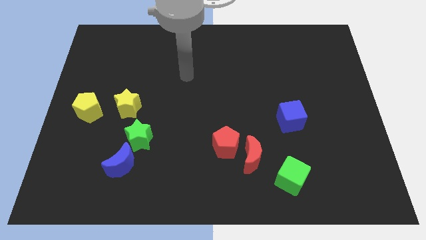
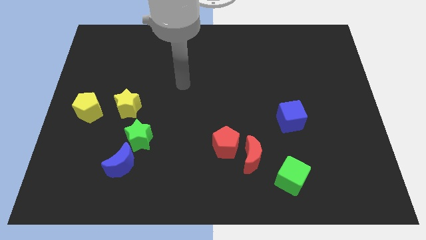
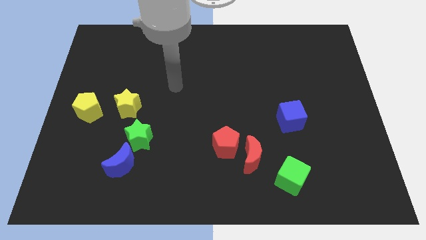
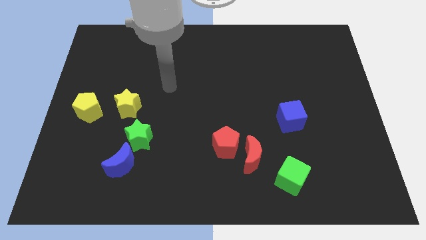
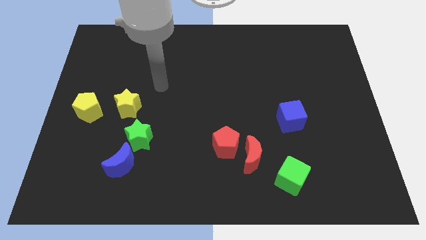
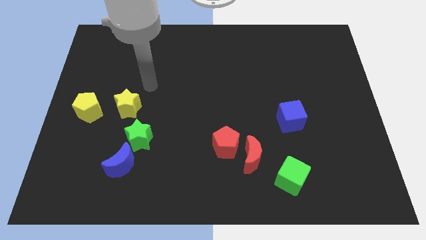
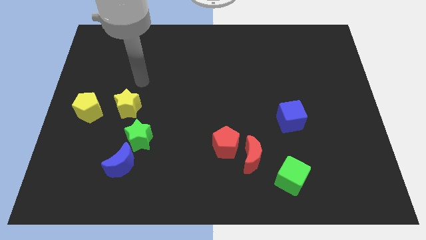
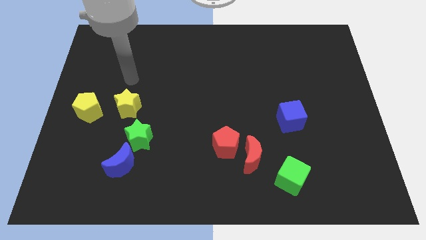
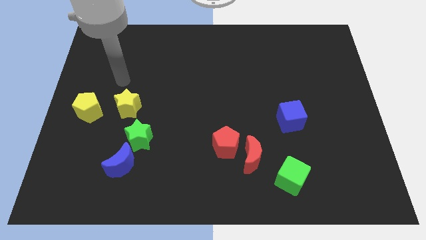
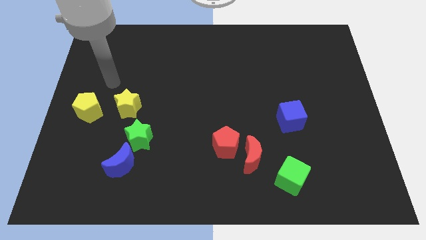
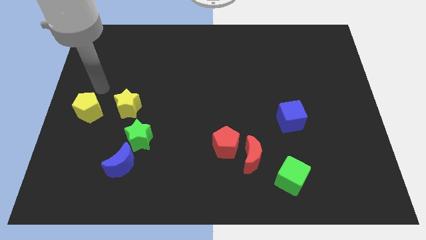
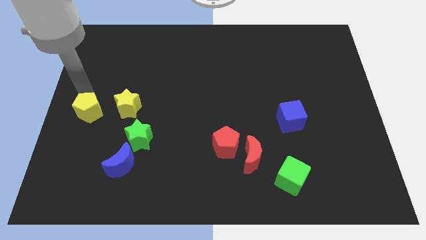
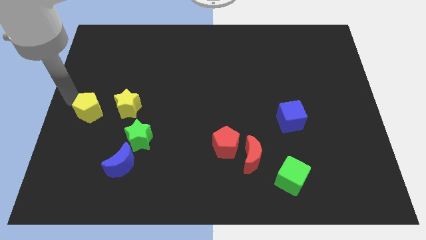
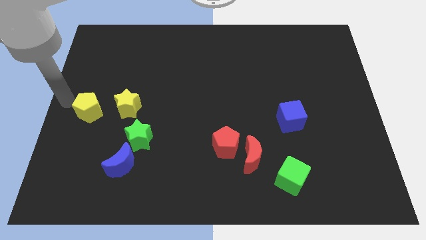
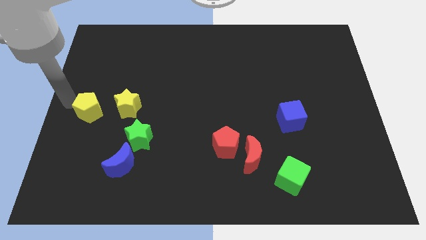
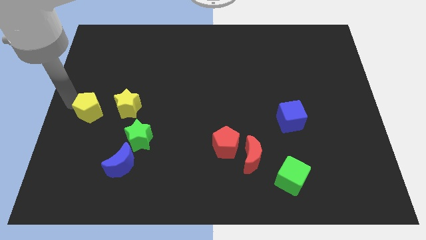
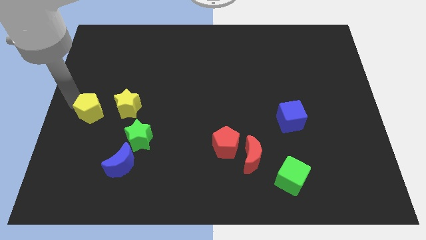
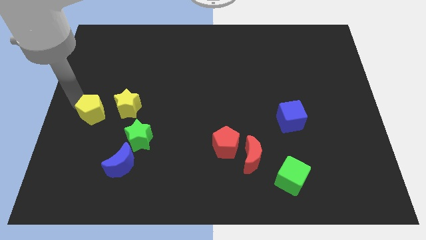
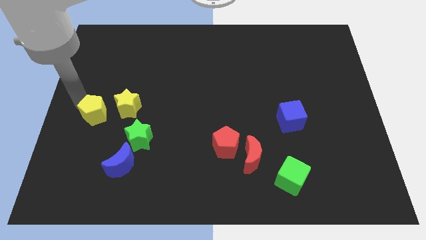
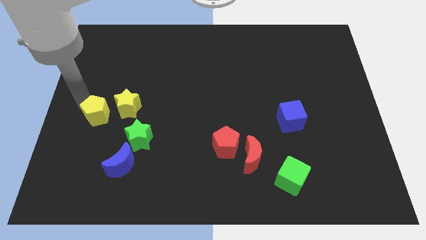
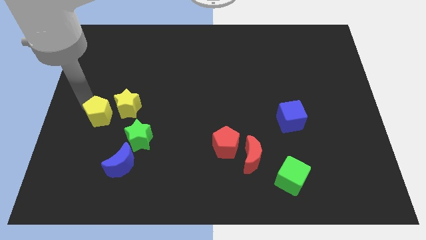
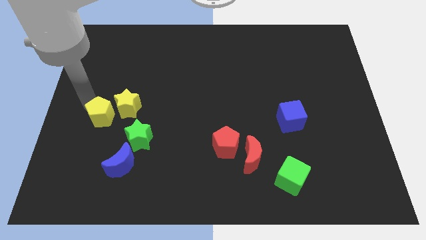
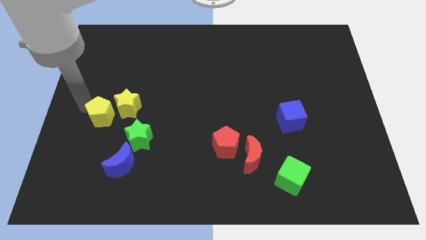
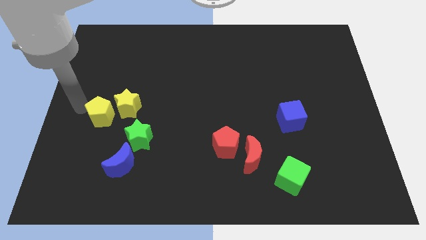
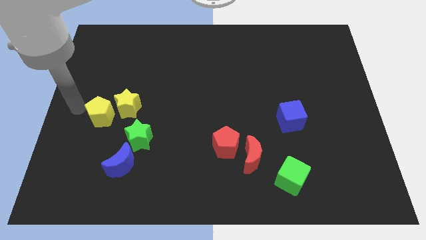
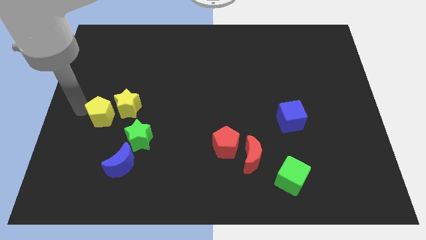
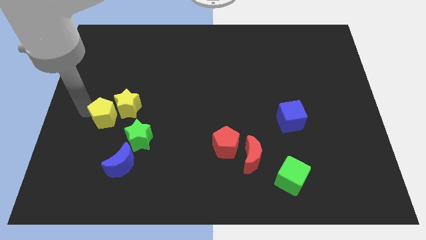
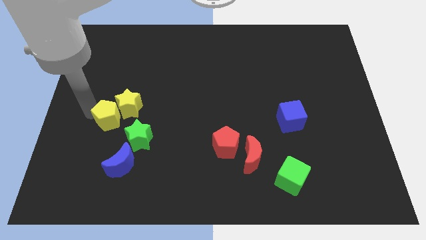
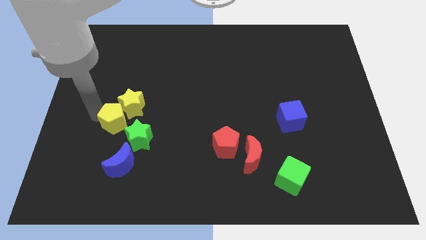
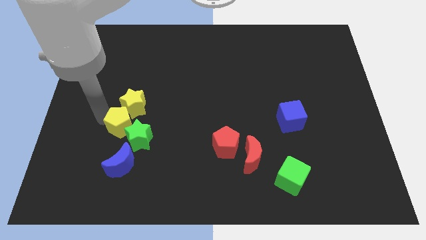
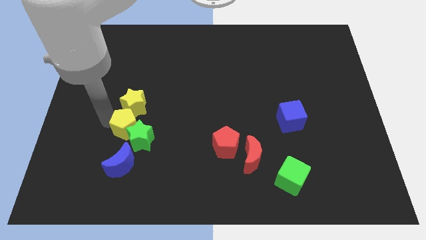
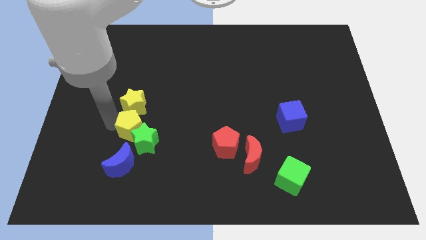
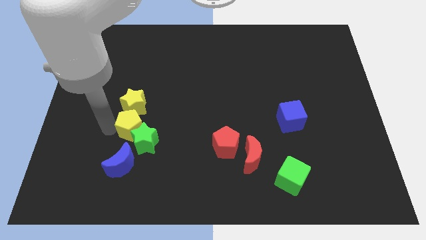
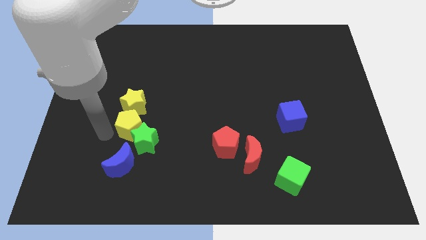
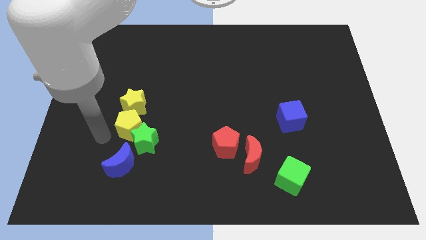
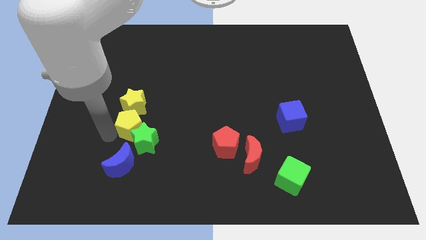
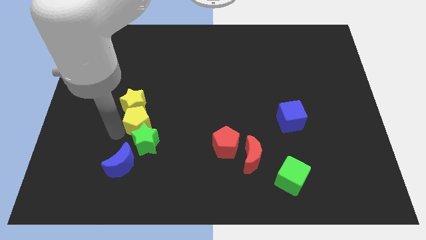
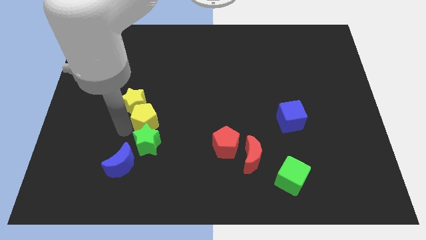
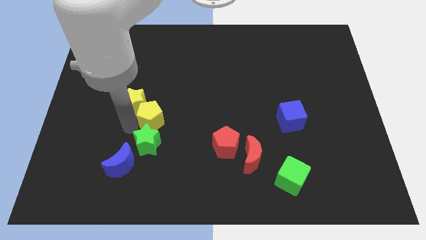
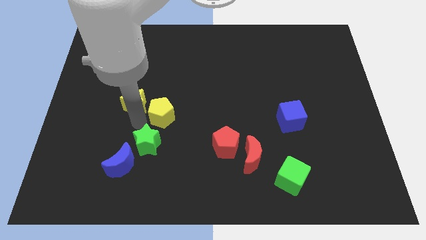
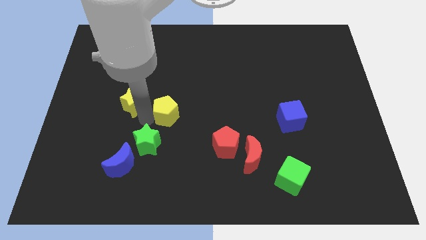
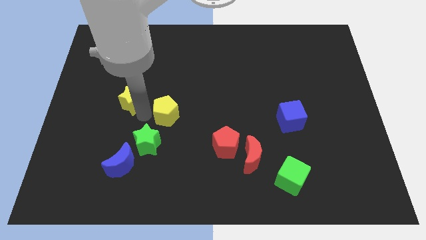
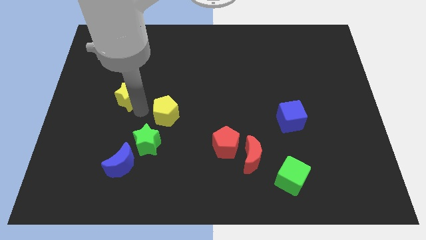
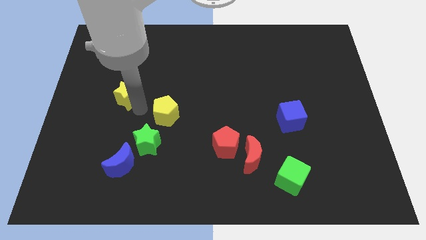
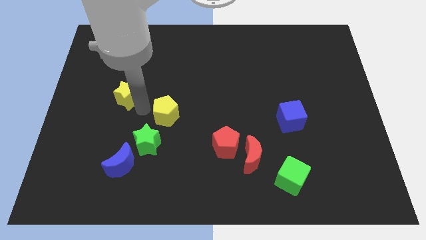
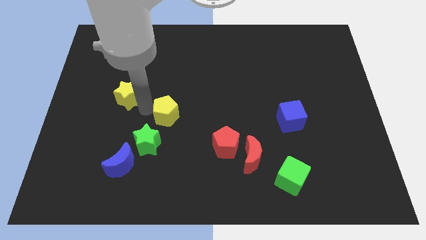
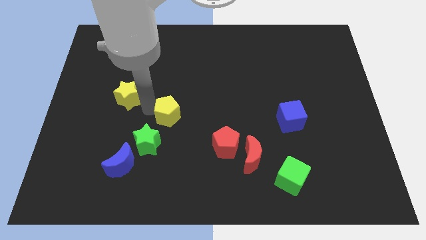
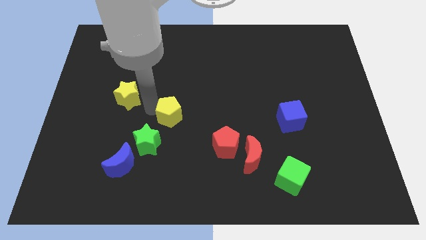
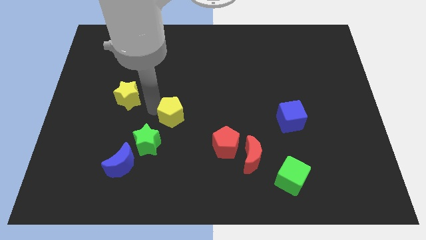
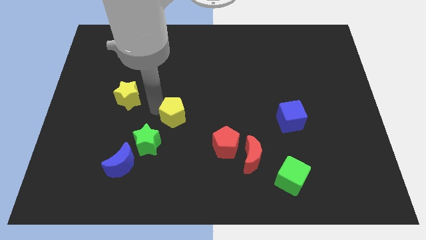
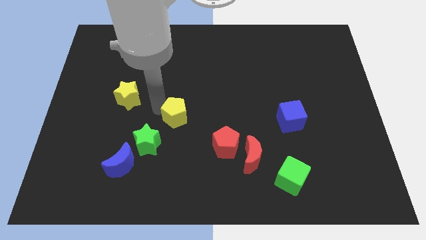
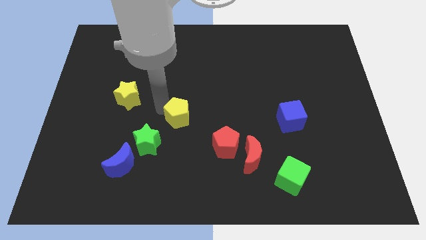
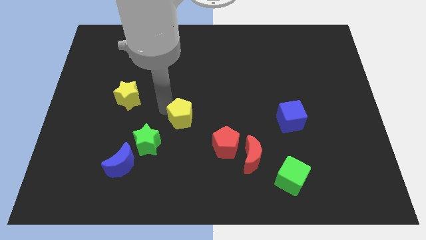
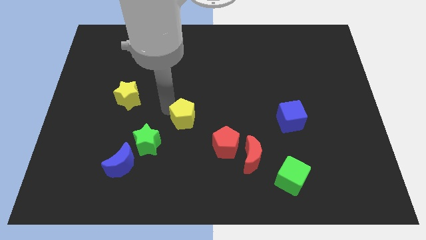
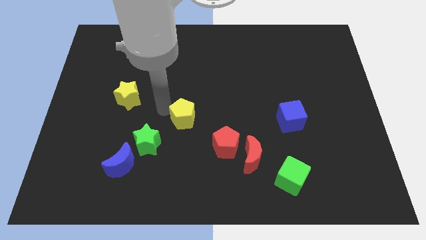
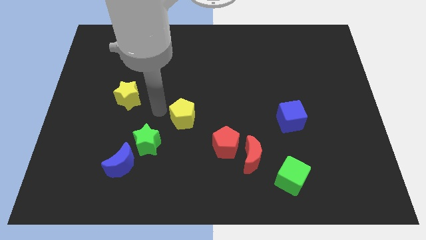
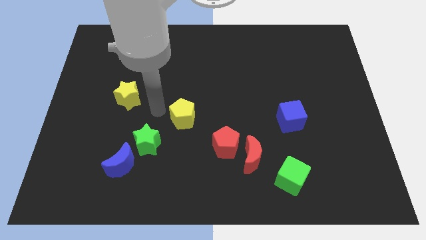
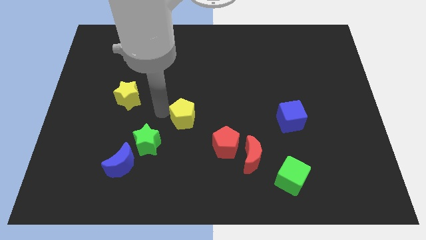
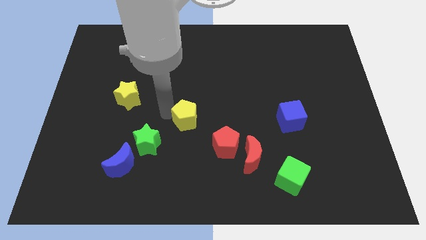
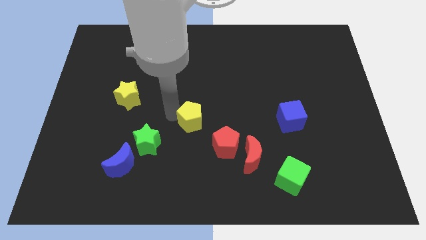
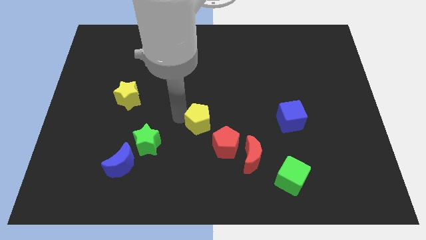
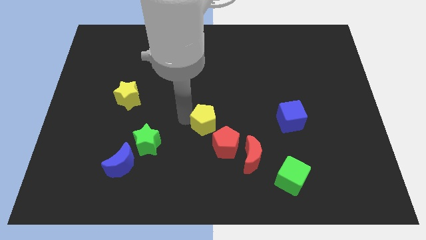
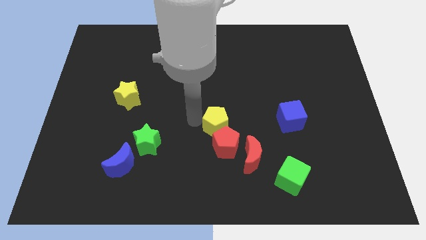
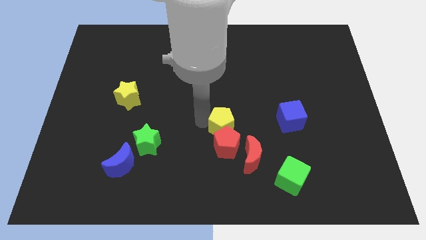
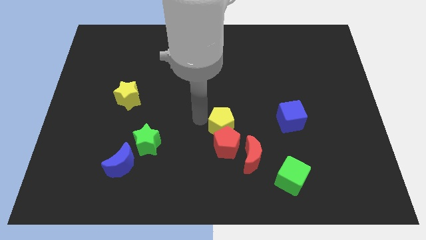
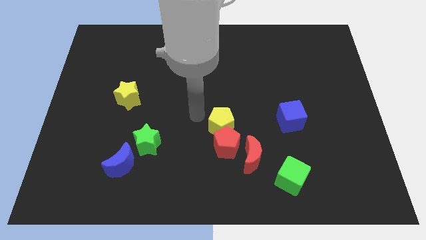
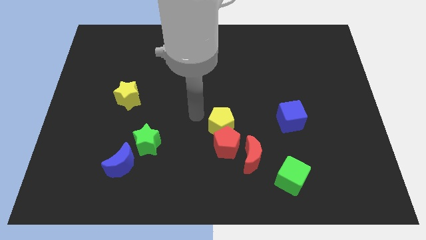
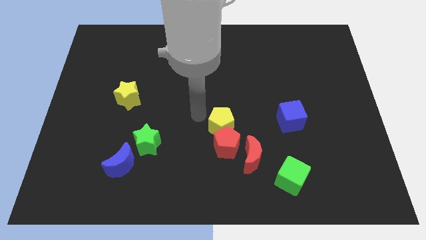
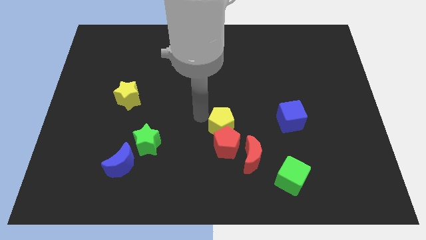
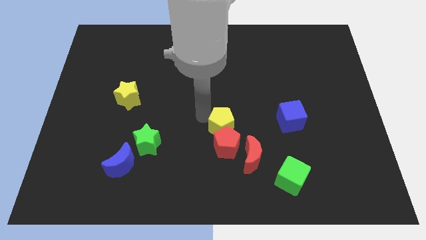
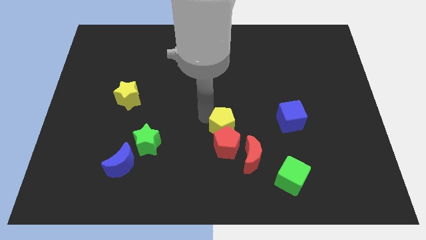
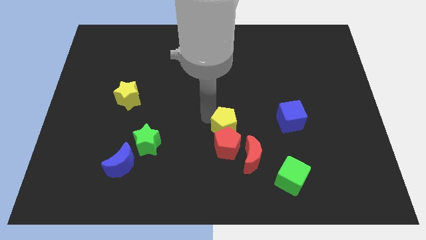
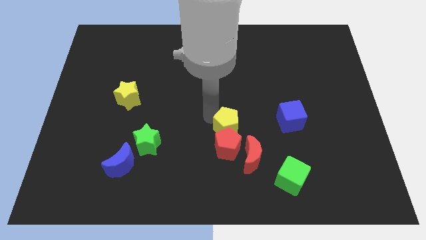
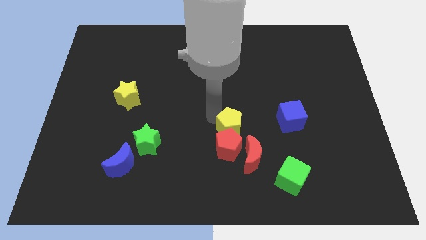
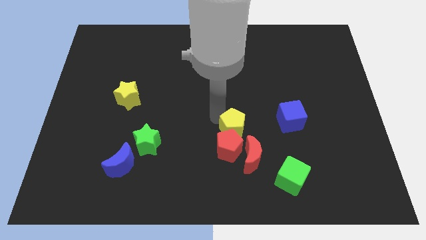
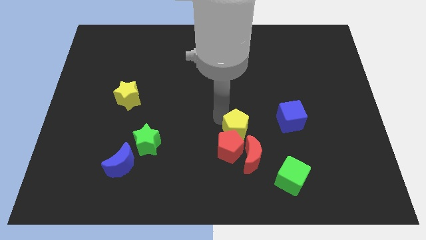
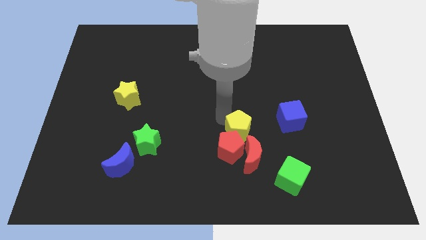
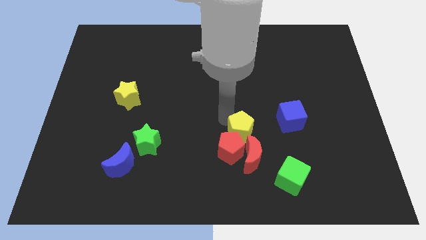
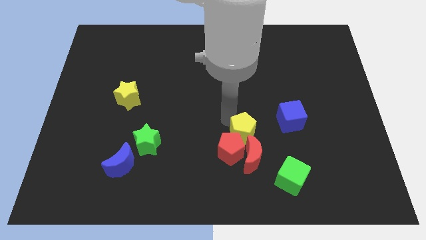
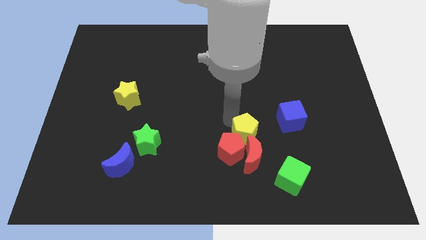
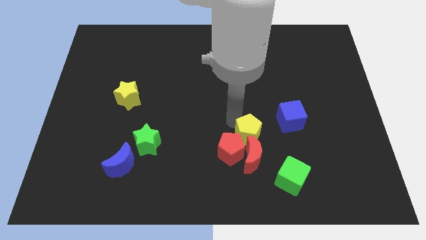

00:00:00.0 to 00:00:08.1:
put the yellow pentagon to the red moon
